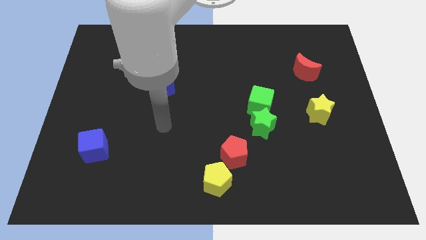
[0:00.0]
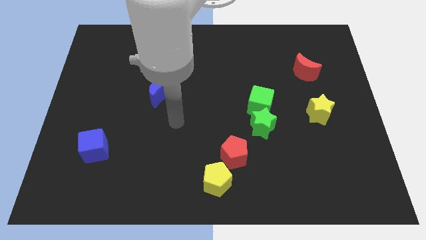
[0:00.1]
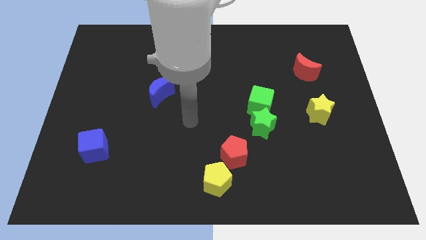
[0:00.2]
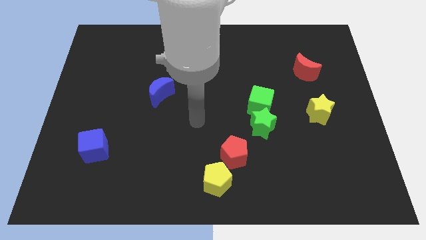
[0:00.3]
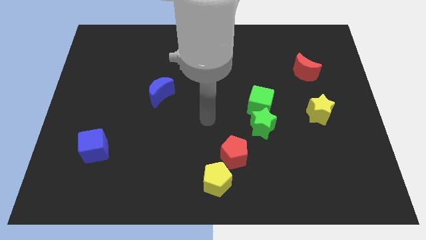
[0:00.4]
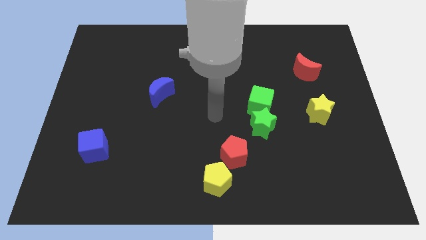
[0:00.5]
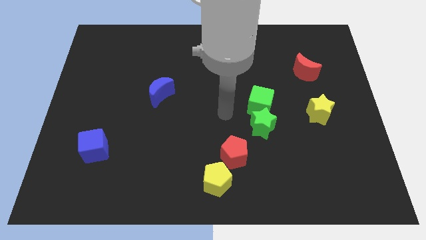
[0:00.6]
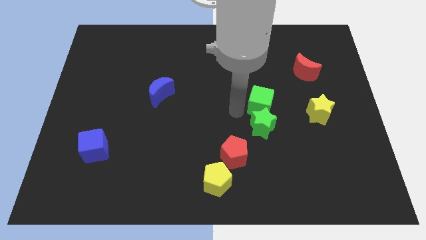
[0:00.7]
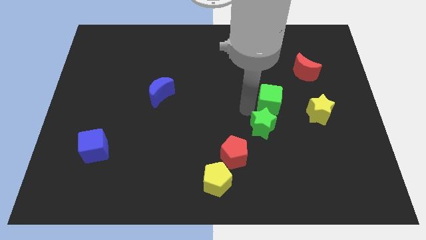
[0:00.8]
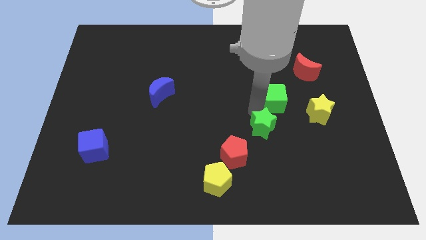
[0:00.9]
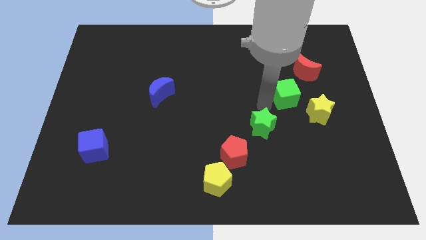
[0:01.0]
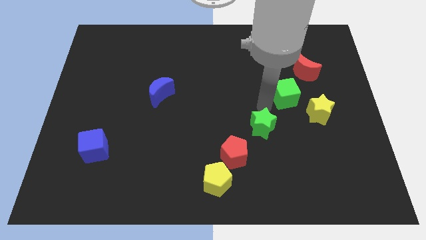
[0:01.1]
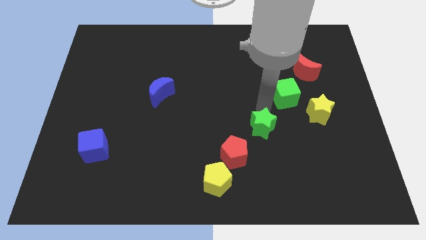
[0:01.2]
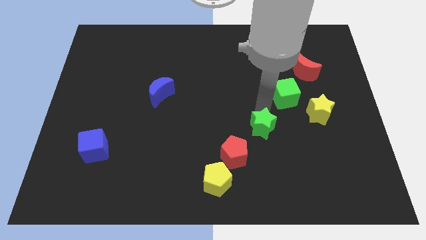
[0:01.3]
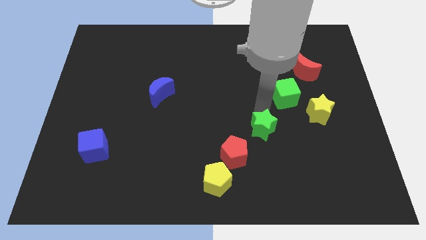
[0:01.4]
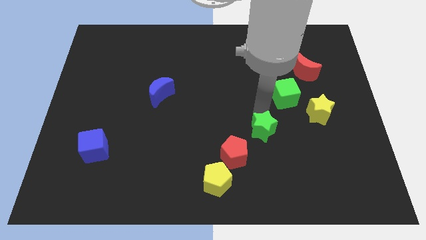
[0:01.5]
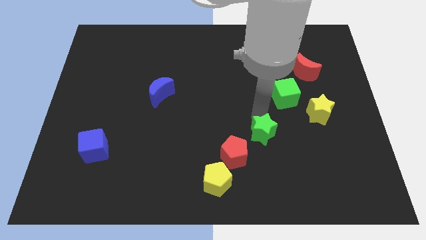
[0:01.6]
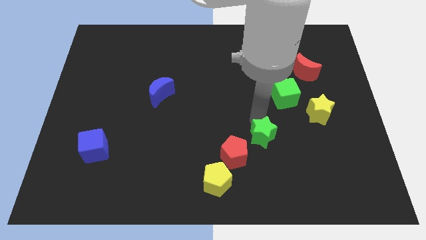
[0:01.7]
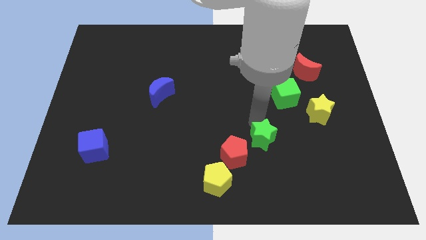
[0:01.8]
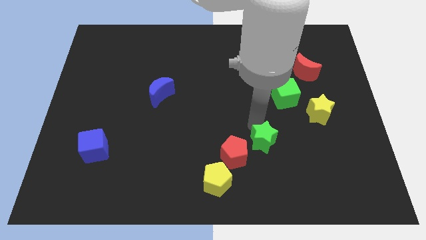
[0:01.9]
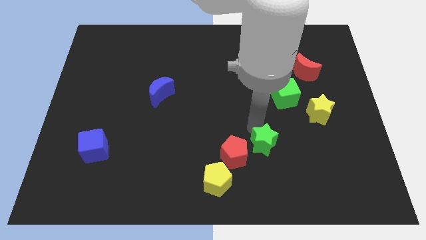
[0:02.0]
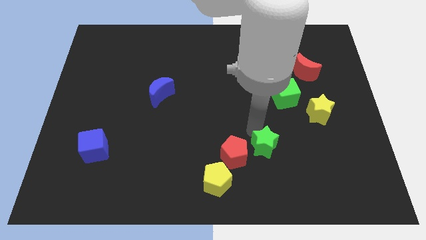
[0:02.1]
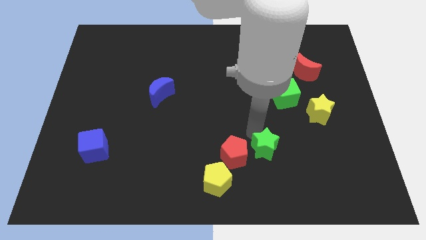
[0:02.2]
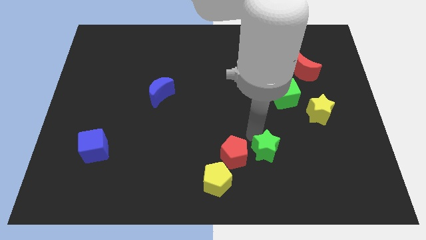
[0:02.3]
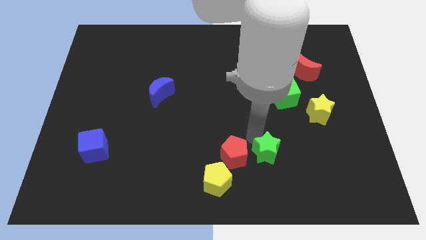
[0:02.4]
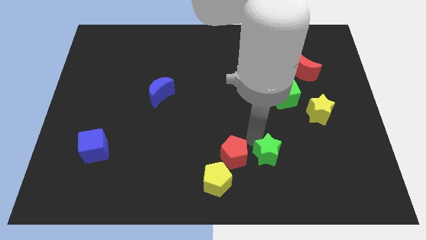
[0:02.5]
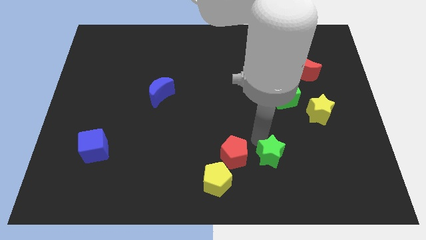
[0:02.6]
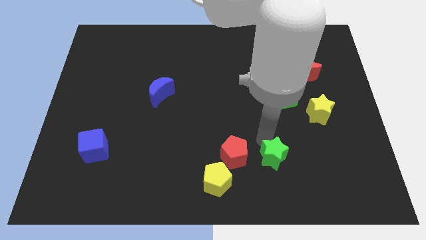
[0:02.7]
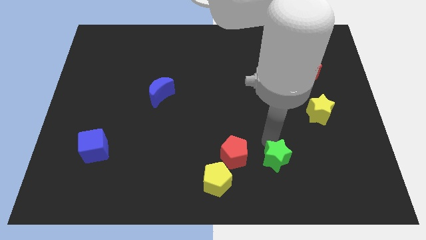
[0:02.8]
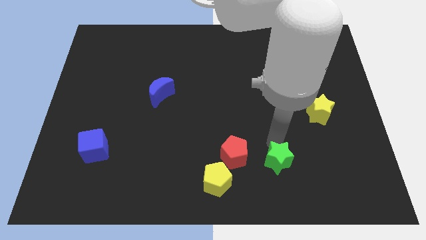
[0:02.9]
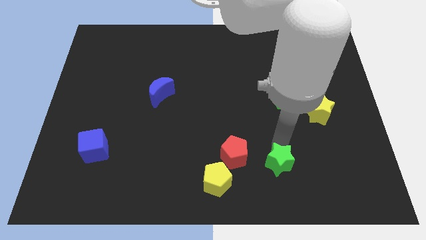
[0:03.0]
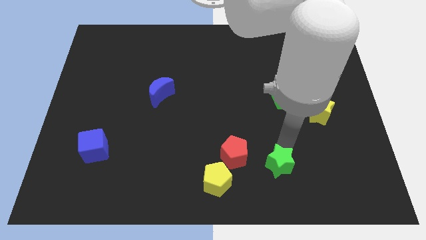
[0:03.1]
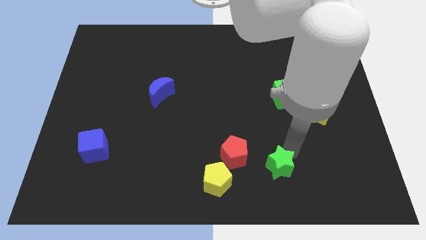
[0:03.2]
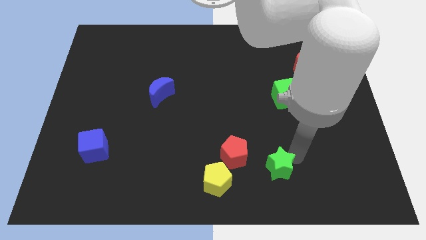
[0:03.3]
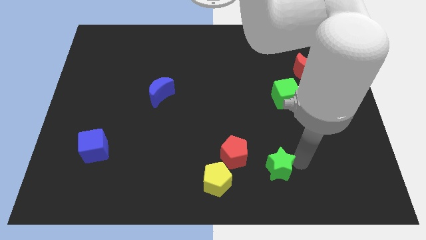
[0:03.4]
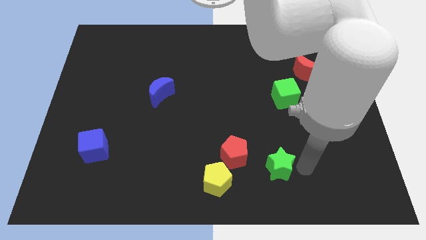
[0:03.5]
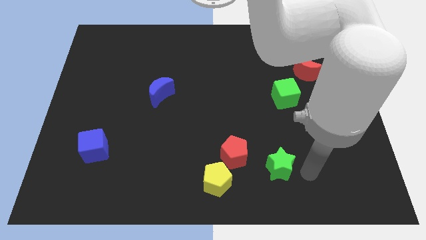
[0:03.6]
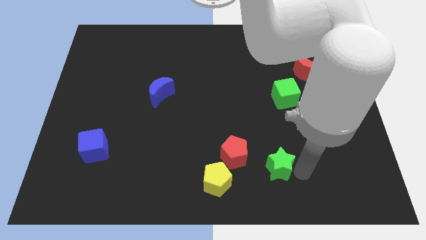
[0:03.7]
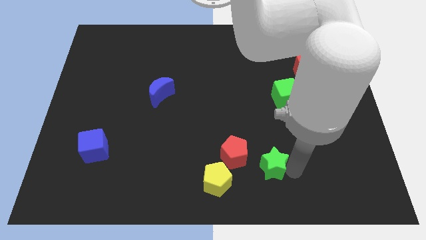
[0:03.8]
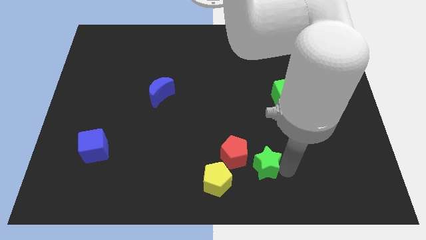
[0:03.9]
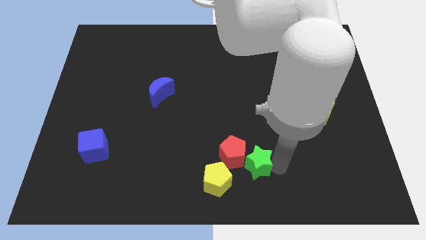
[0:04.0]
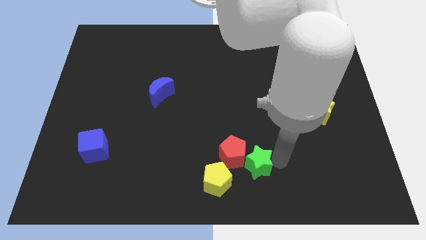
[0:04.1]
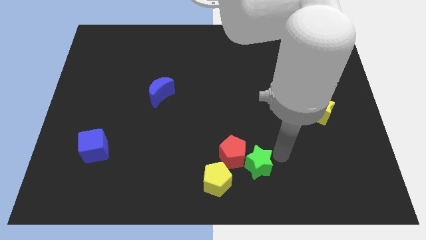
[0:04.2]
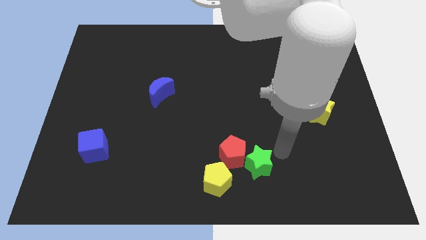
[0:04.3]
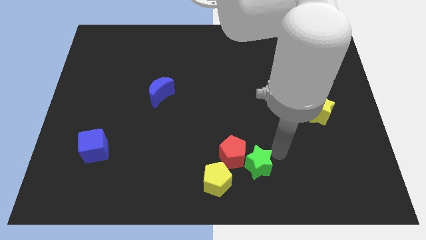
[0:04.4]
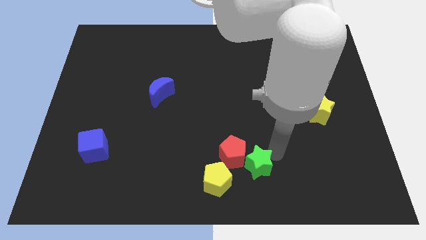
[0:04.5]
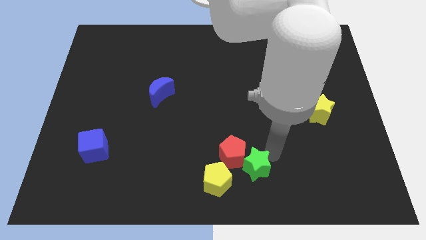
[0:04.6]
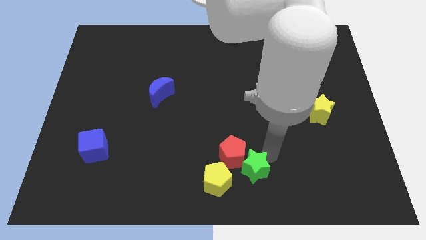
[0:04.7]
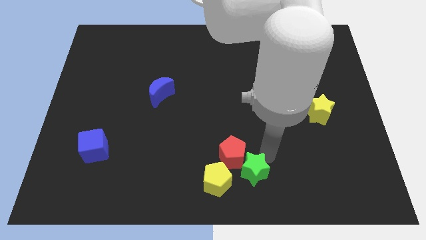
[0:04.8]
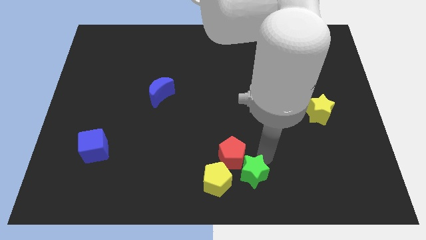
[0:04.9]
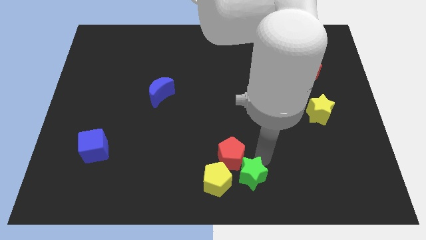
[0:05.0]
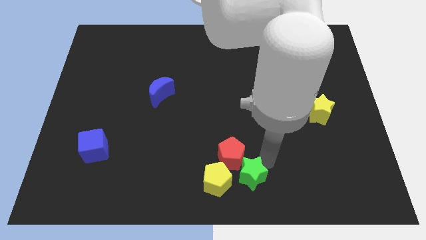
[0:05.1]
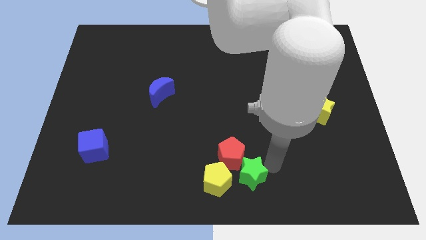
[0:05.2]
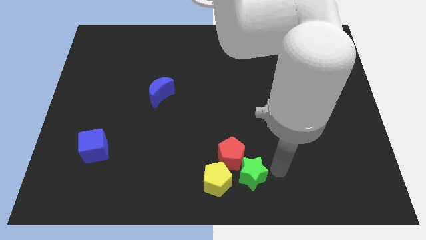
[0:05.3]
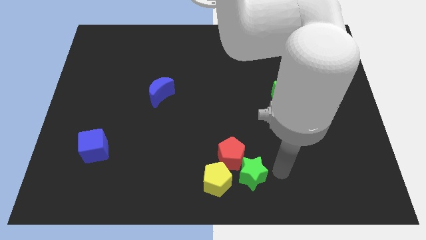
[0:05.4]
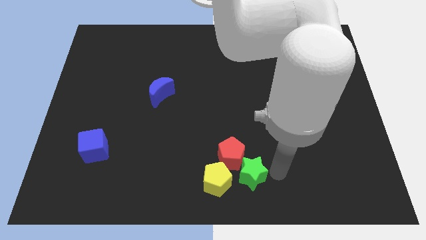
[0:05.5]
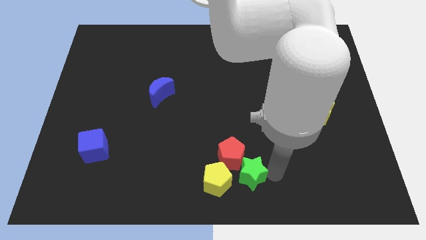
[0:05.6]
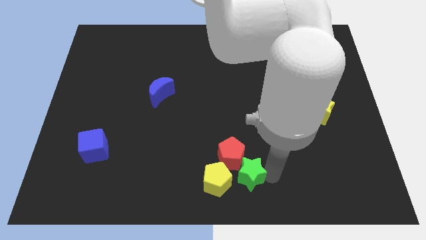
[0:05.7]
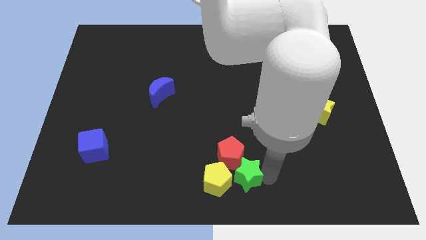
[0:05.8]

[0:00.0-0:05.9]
push the green star next to the yellow pentagon

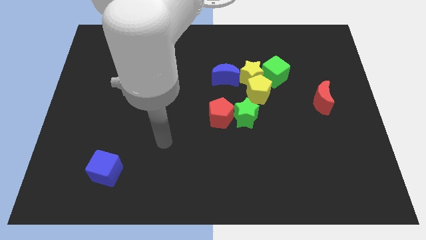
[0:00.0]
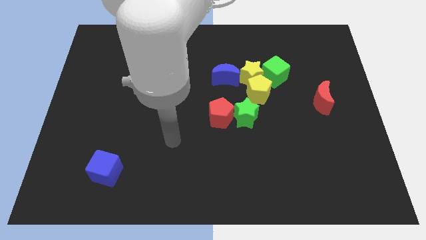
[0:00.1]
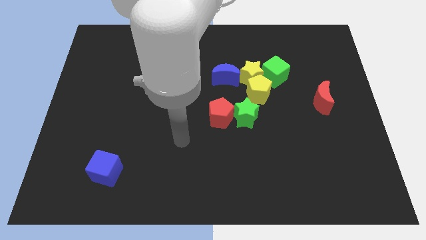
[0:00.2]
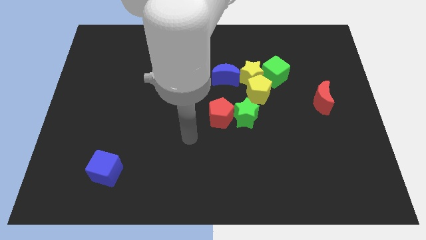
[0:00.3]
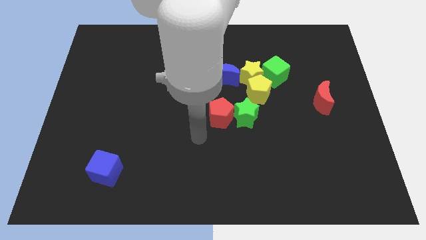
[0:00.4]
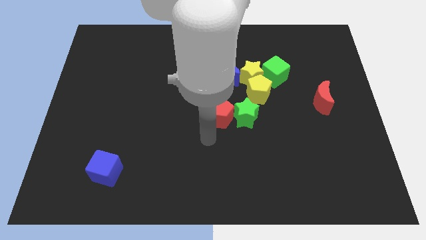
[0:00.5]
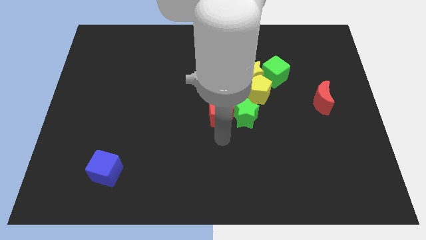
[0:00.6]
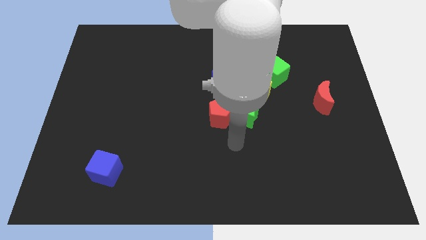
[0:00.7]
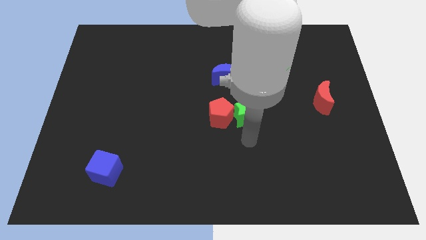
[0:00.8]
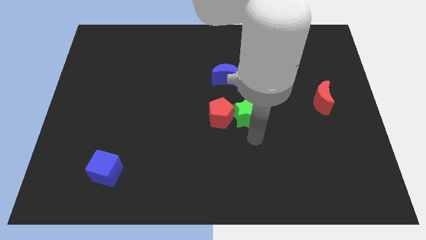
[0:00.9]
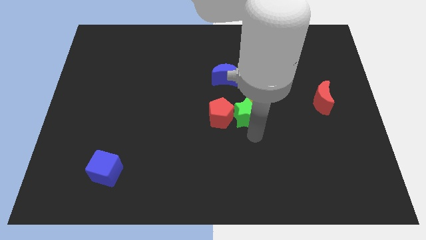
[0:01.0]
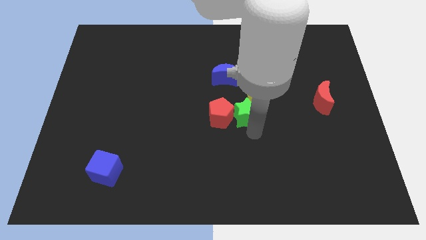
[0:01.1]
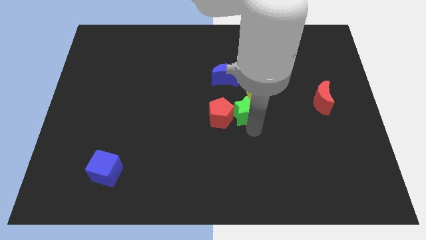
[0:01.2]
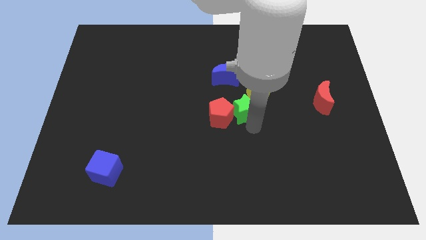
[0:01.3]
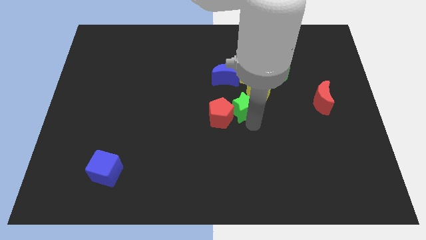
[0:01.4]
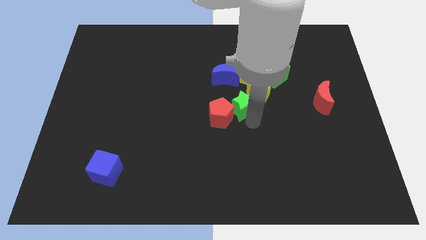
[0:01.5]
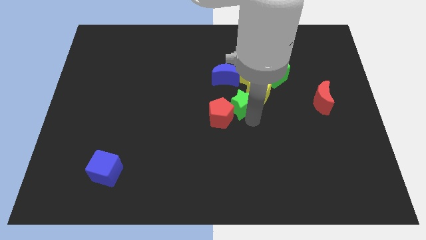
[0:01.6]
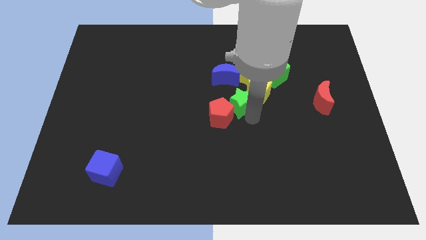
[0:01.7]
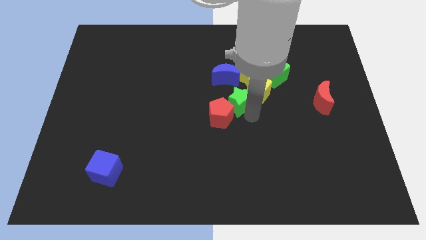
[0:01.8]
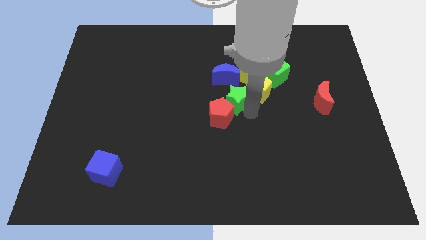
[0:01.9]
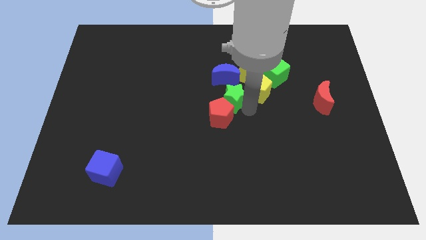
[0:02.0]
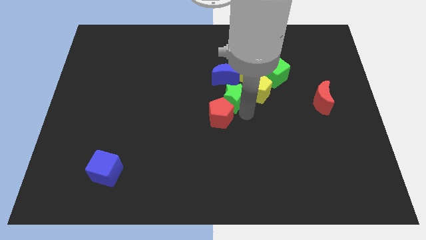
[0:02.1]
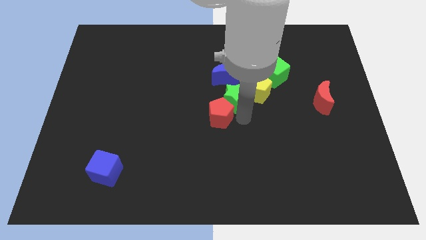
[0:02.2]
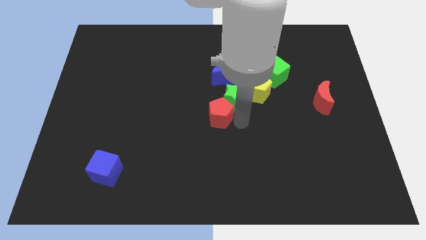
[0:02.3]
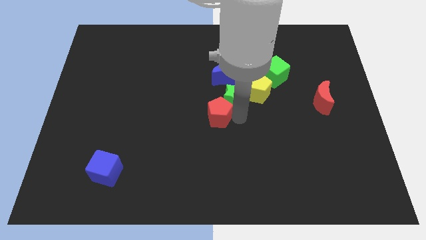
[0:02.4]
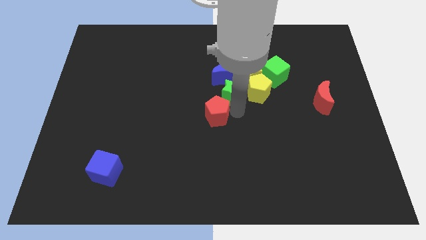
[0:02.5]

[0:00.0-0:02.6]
slide the green star to the blue moon
